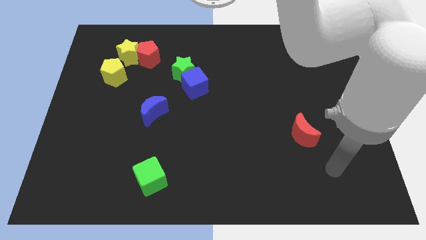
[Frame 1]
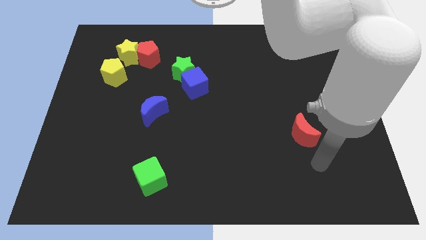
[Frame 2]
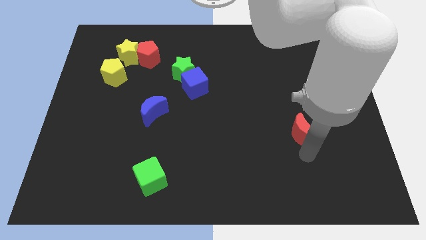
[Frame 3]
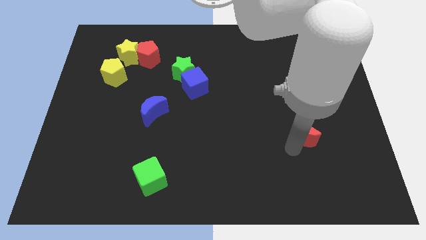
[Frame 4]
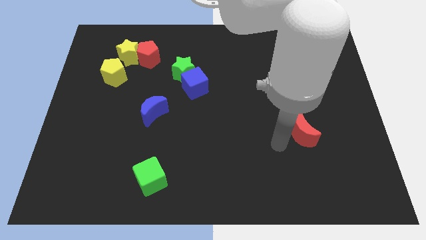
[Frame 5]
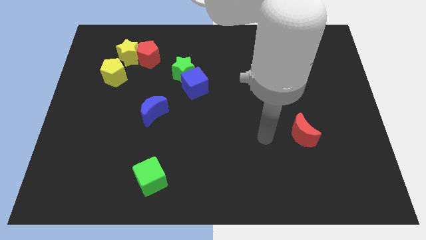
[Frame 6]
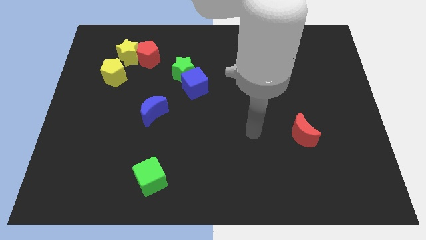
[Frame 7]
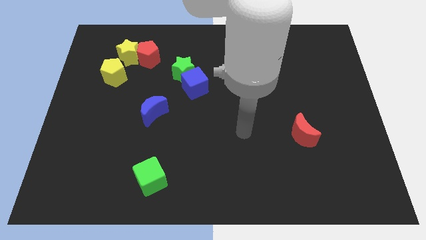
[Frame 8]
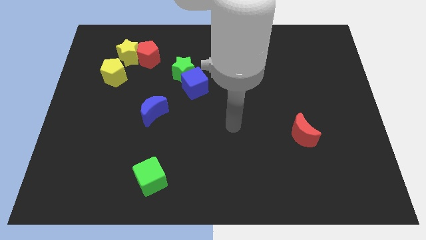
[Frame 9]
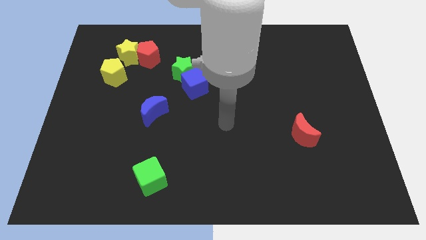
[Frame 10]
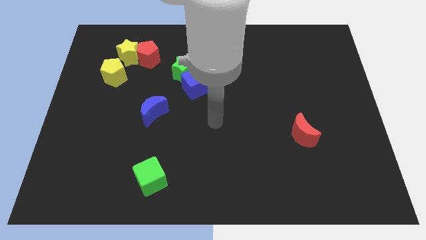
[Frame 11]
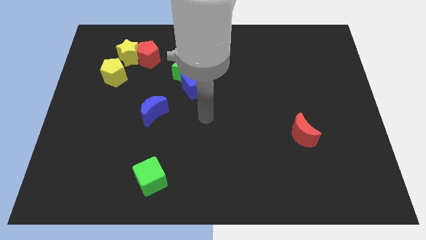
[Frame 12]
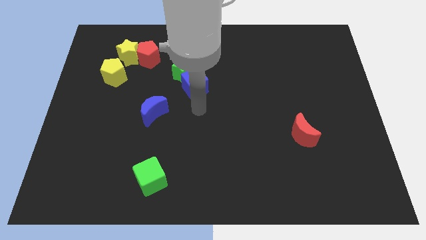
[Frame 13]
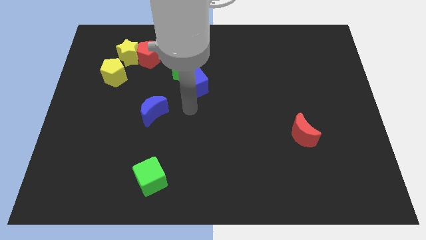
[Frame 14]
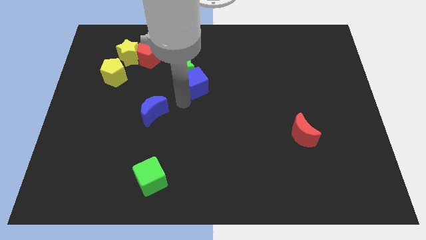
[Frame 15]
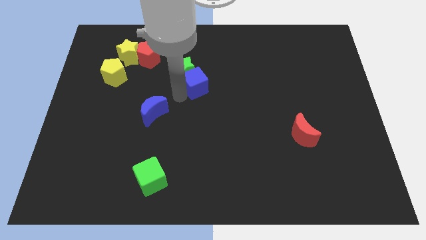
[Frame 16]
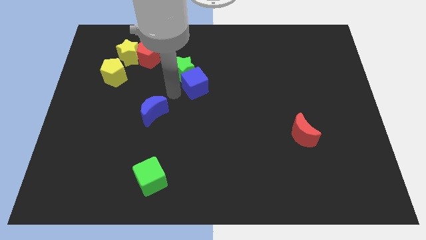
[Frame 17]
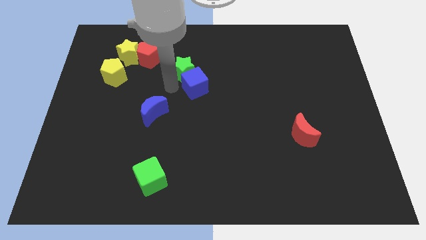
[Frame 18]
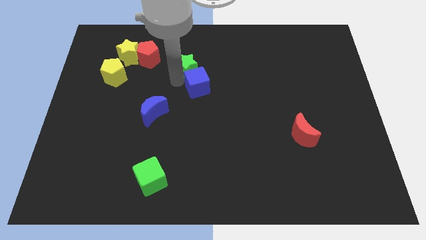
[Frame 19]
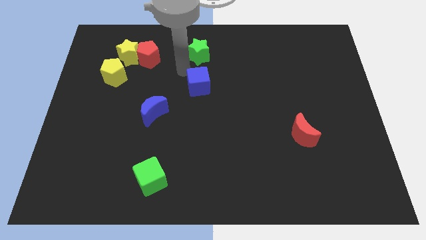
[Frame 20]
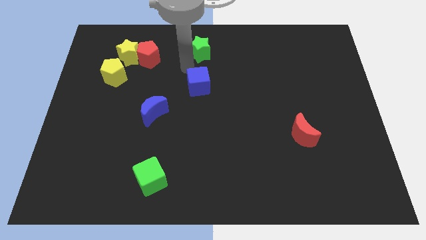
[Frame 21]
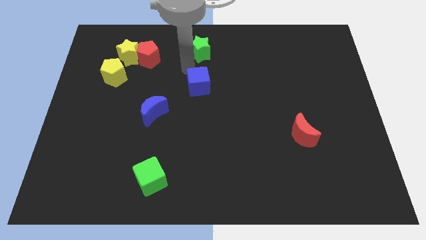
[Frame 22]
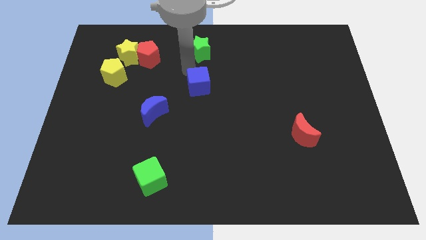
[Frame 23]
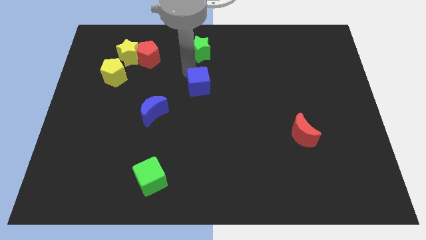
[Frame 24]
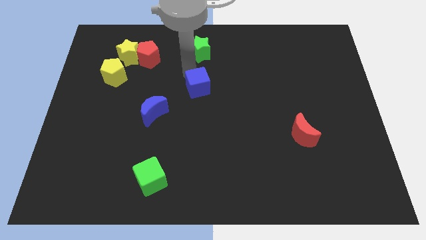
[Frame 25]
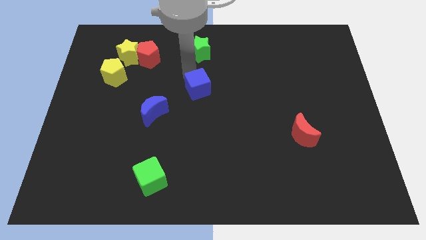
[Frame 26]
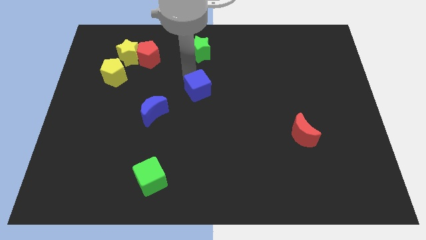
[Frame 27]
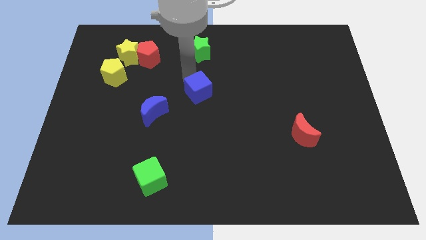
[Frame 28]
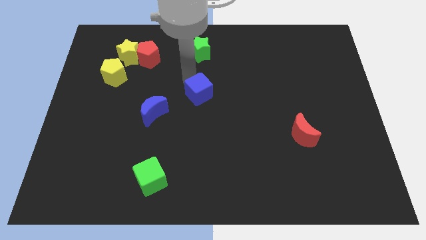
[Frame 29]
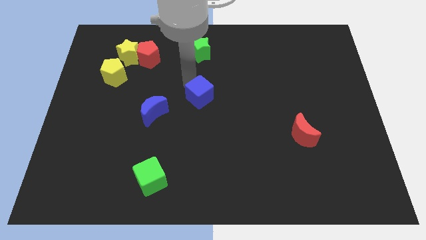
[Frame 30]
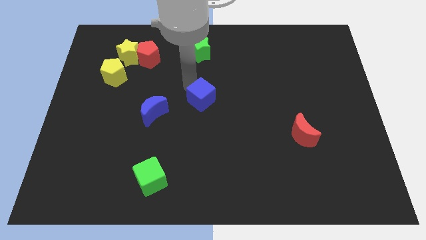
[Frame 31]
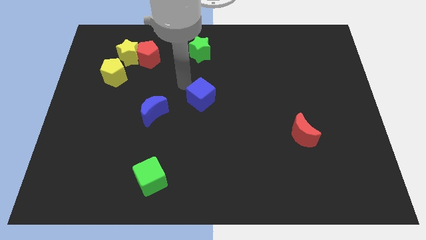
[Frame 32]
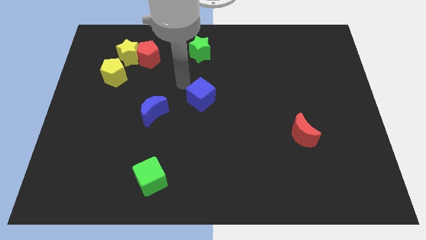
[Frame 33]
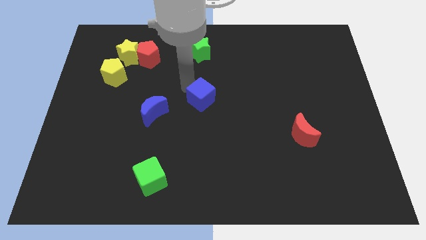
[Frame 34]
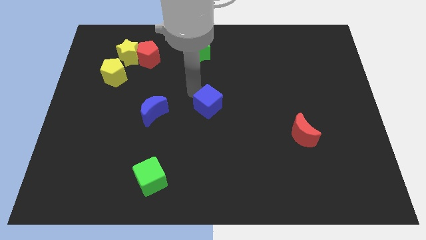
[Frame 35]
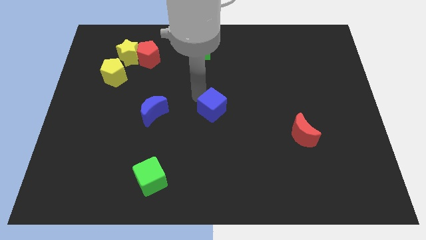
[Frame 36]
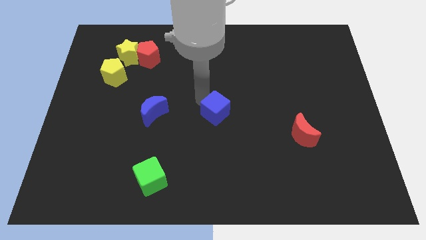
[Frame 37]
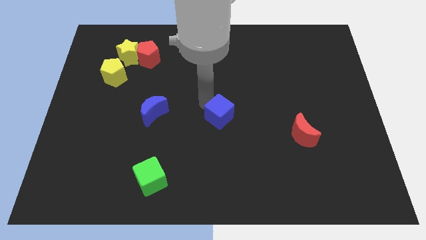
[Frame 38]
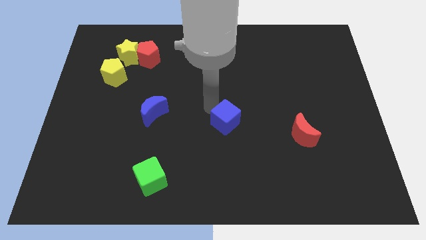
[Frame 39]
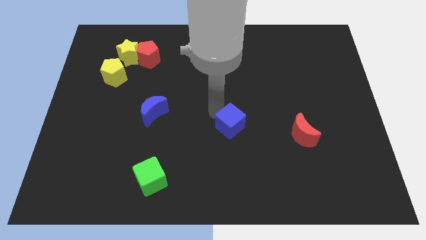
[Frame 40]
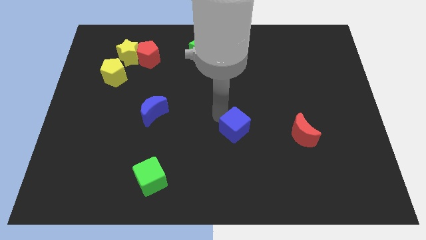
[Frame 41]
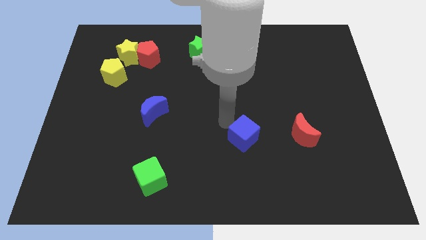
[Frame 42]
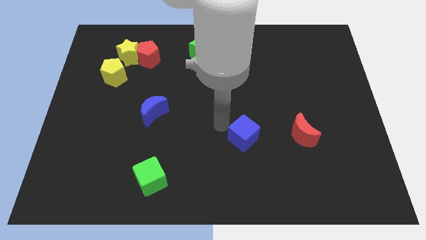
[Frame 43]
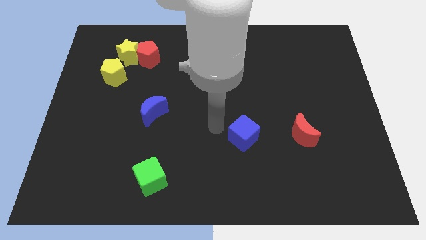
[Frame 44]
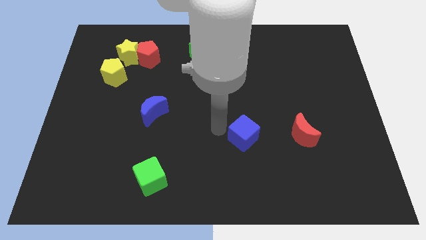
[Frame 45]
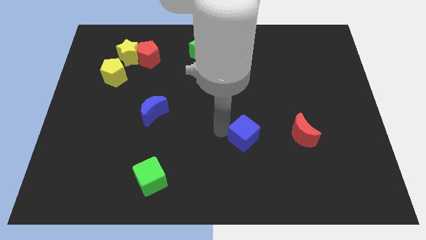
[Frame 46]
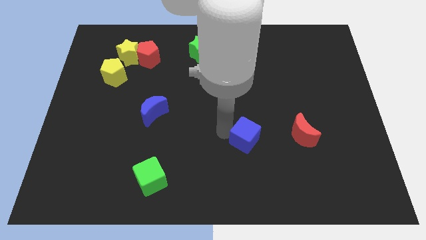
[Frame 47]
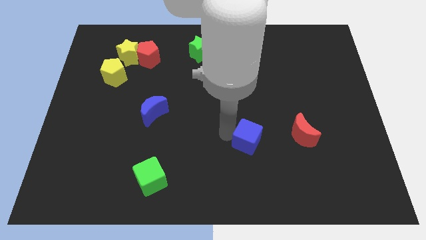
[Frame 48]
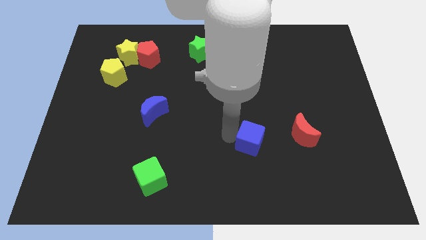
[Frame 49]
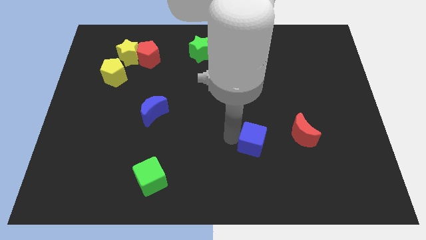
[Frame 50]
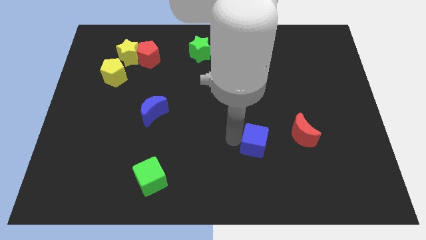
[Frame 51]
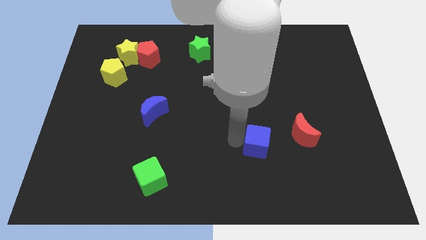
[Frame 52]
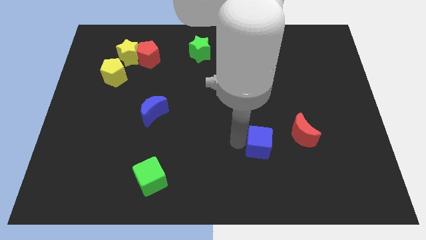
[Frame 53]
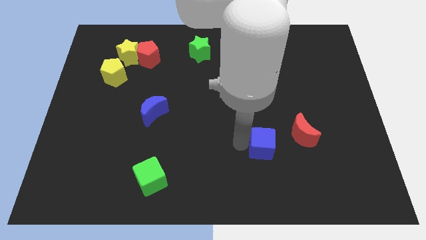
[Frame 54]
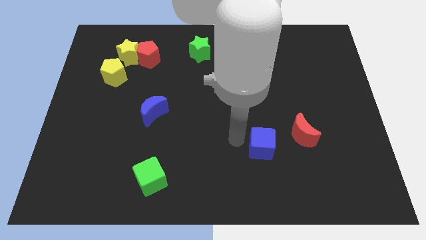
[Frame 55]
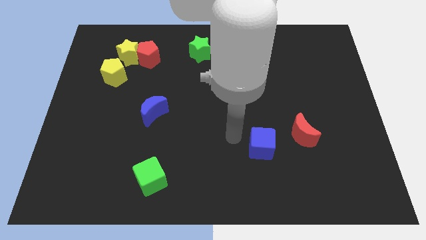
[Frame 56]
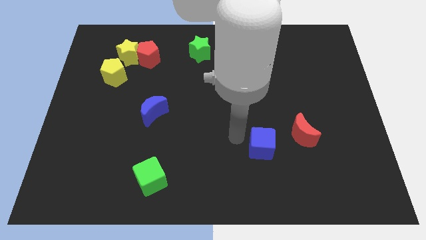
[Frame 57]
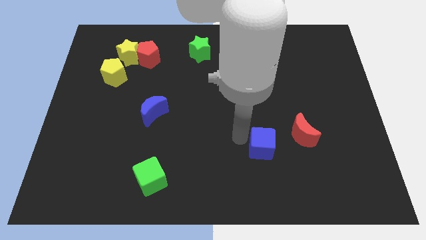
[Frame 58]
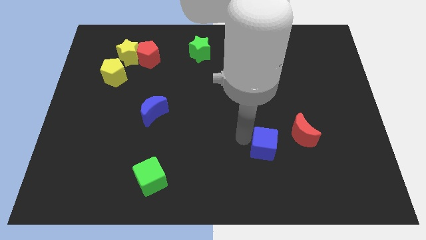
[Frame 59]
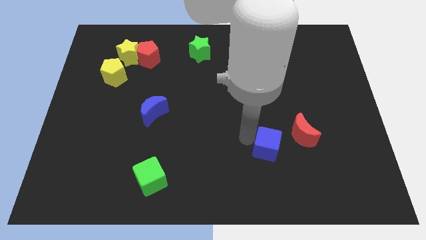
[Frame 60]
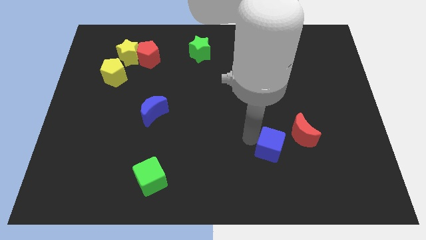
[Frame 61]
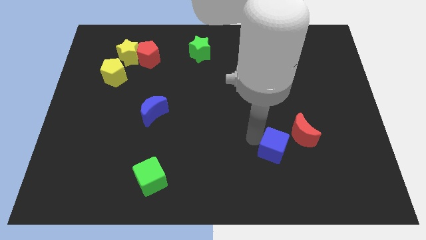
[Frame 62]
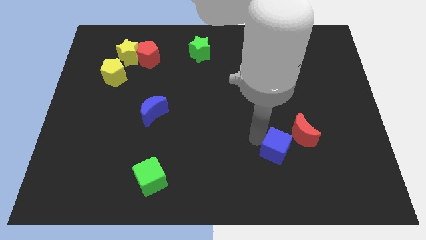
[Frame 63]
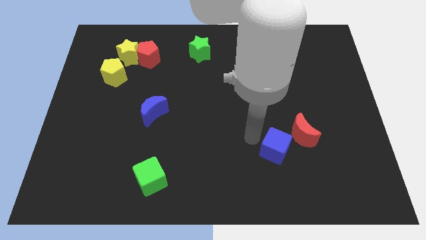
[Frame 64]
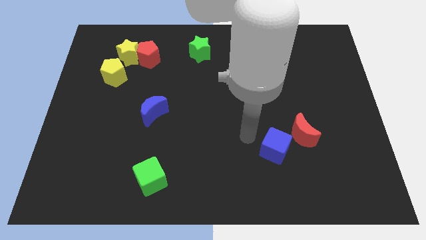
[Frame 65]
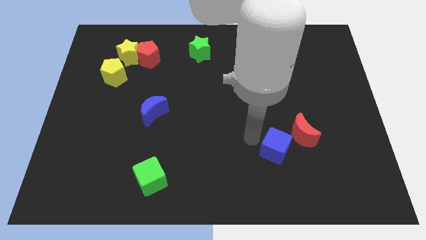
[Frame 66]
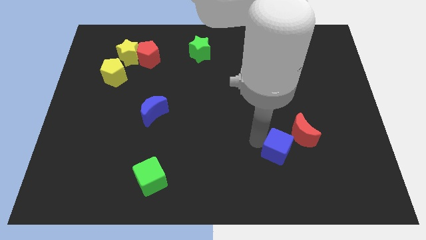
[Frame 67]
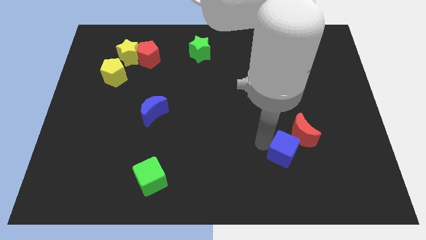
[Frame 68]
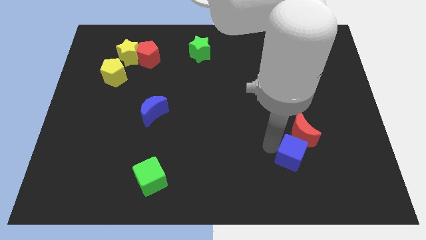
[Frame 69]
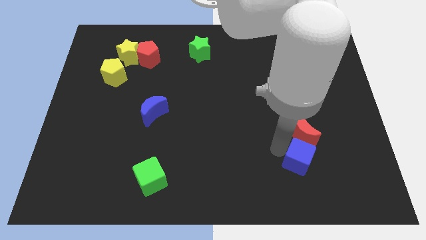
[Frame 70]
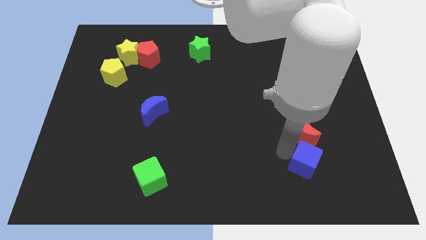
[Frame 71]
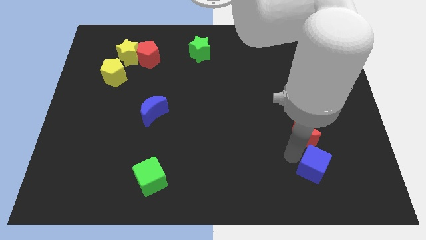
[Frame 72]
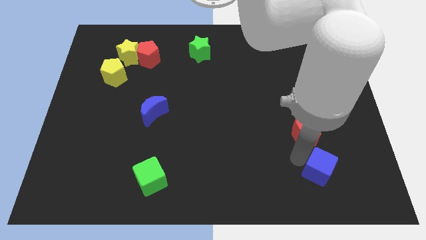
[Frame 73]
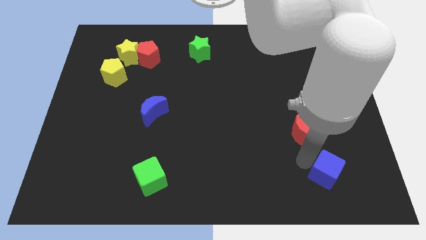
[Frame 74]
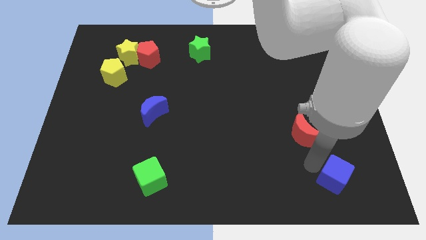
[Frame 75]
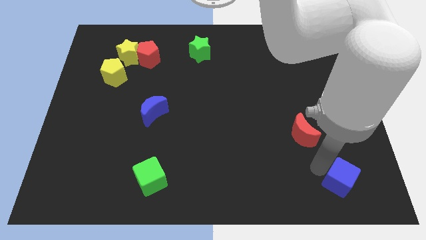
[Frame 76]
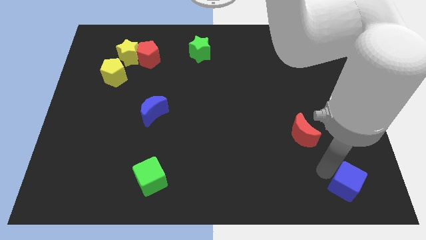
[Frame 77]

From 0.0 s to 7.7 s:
push the blue cube to the bottom right of the board
